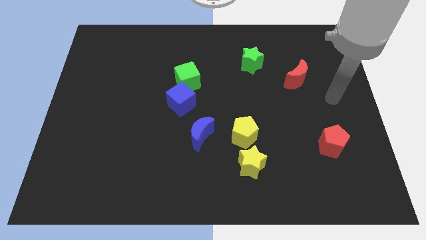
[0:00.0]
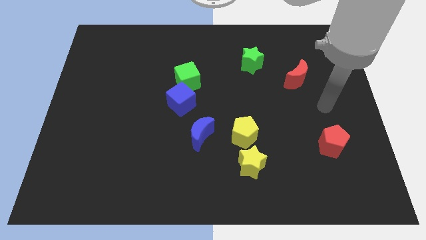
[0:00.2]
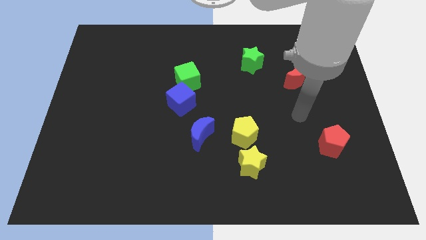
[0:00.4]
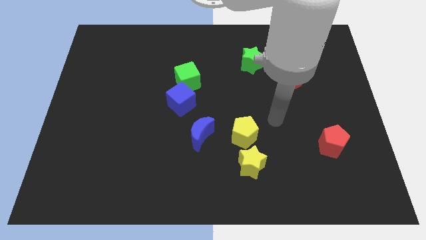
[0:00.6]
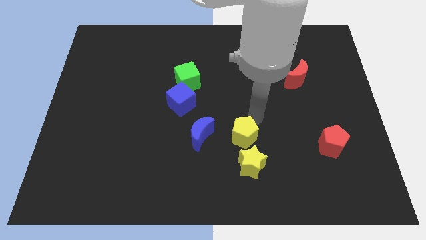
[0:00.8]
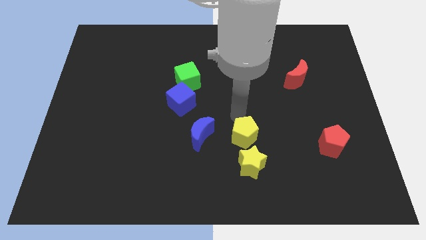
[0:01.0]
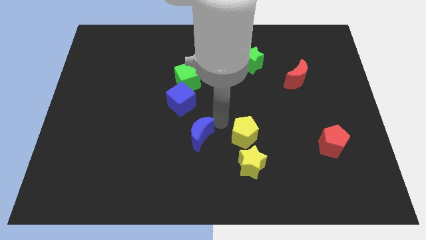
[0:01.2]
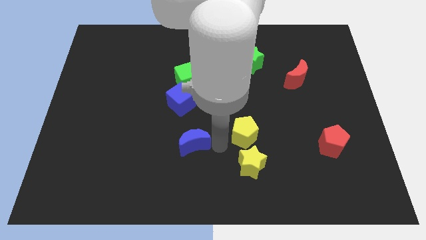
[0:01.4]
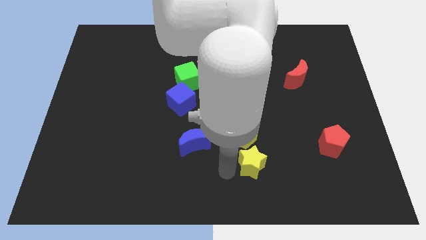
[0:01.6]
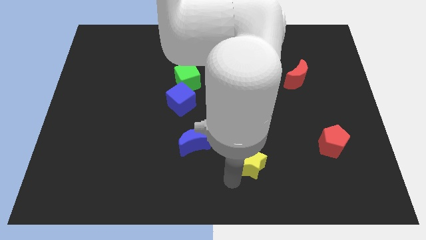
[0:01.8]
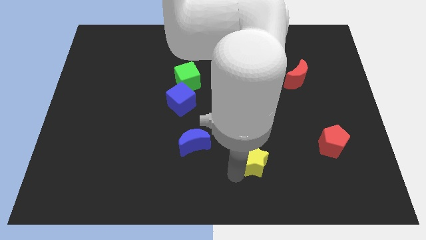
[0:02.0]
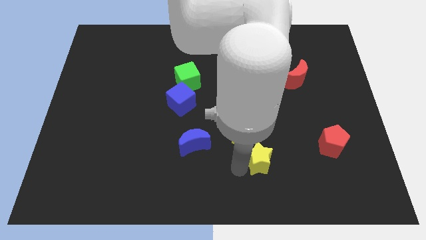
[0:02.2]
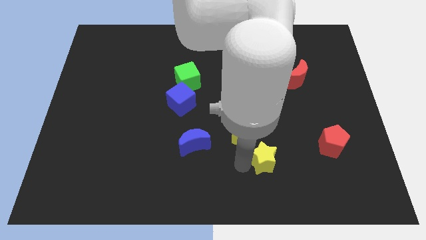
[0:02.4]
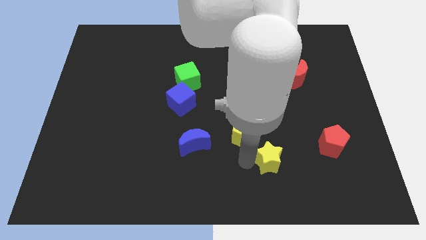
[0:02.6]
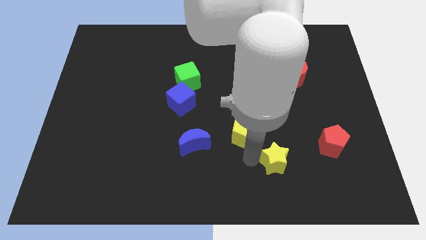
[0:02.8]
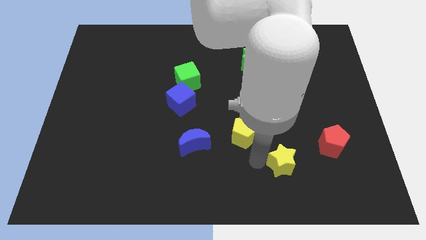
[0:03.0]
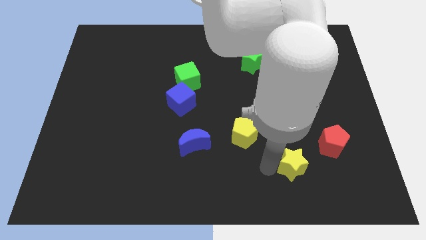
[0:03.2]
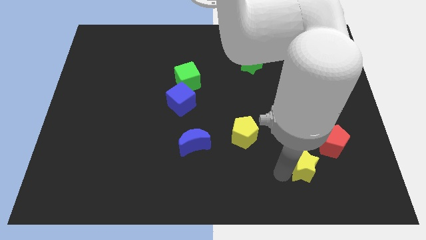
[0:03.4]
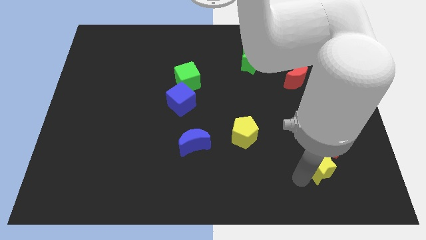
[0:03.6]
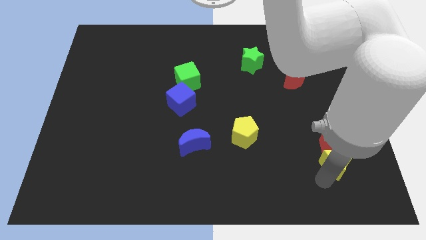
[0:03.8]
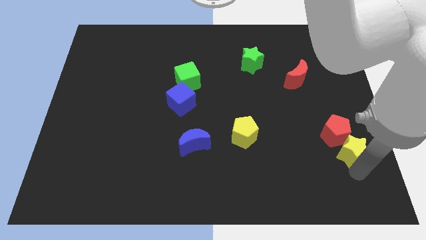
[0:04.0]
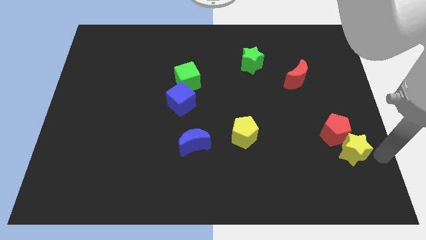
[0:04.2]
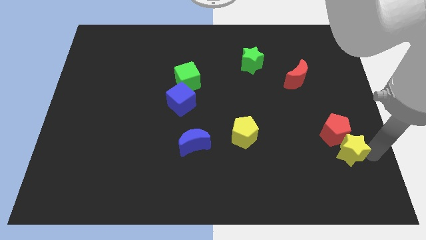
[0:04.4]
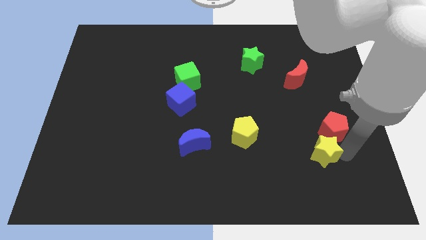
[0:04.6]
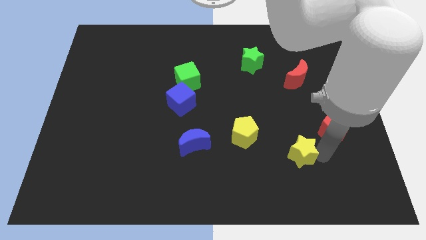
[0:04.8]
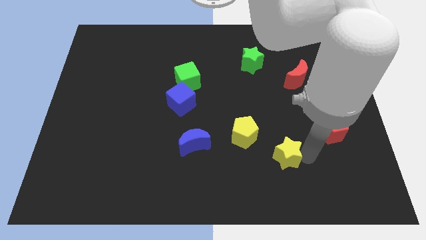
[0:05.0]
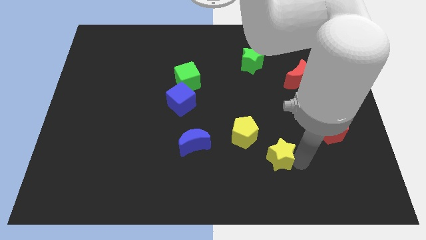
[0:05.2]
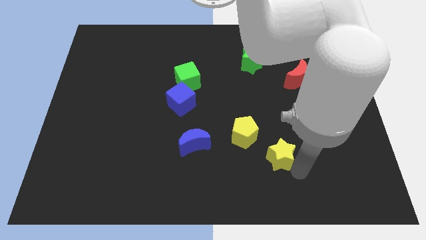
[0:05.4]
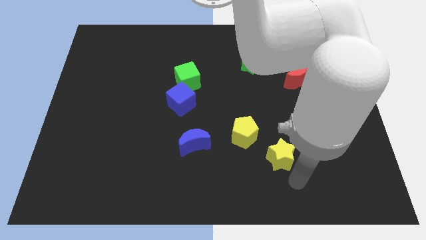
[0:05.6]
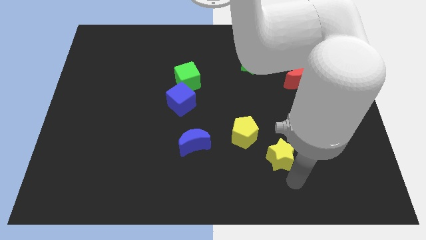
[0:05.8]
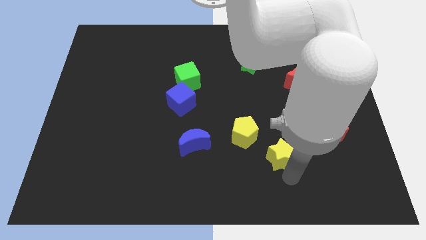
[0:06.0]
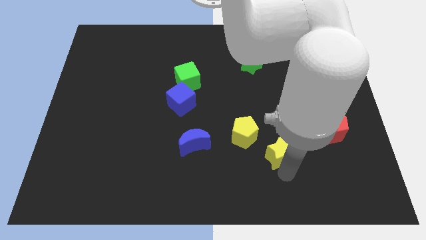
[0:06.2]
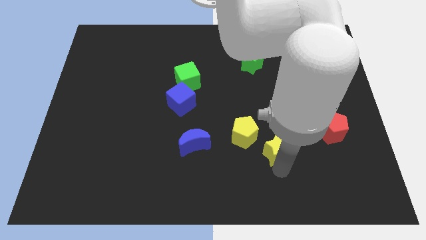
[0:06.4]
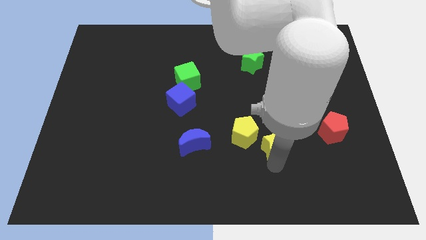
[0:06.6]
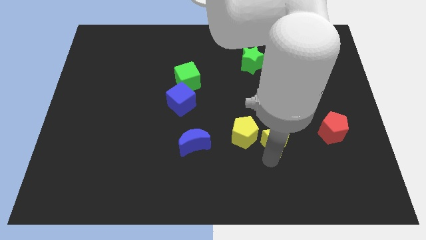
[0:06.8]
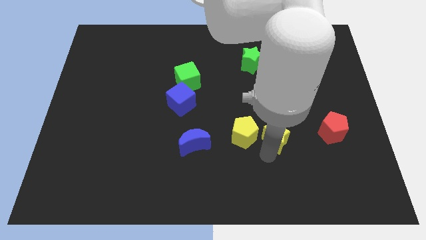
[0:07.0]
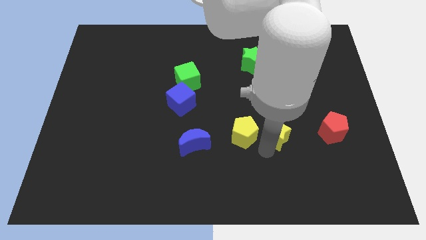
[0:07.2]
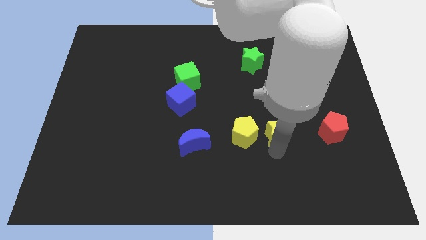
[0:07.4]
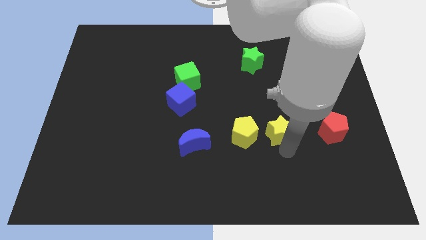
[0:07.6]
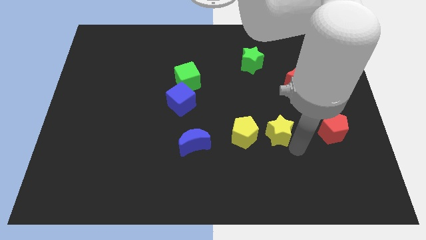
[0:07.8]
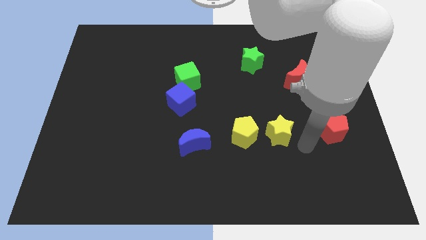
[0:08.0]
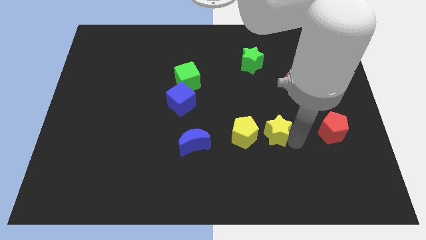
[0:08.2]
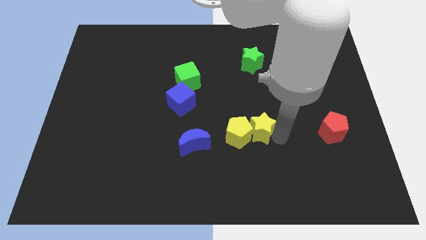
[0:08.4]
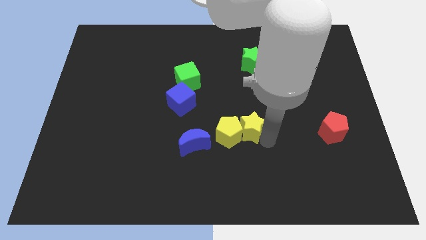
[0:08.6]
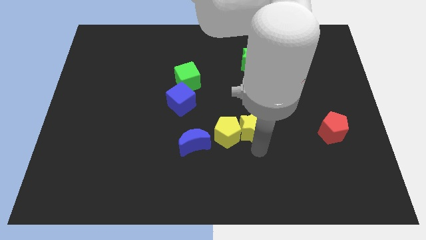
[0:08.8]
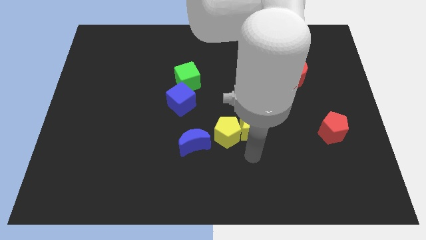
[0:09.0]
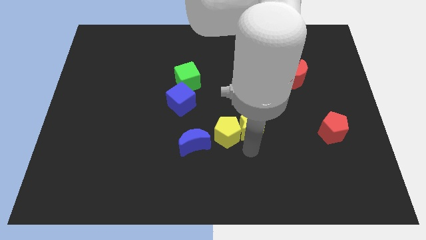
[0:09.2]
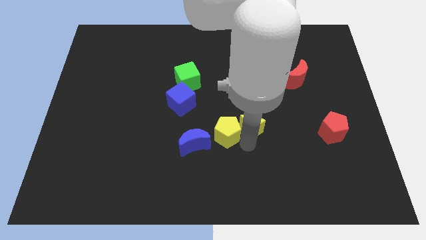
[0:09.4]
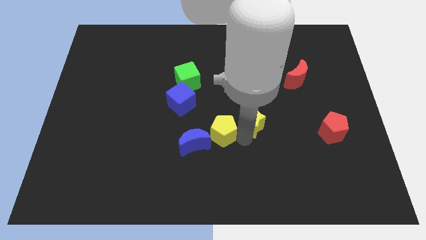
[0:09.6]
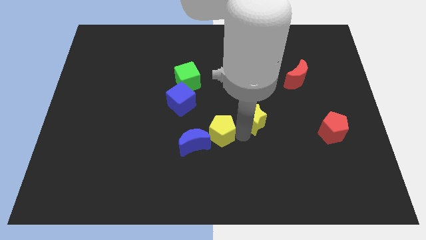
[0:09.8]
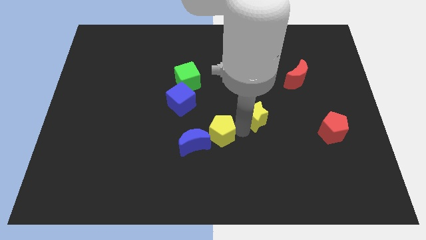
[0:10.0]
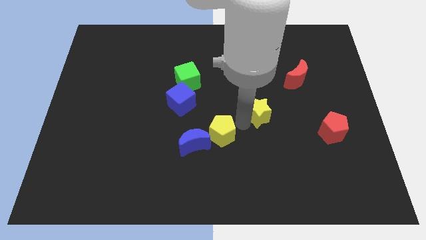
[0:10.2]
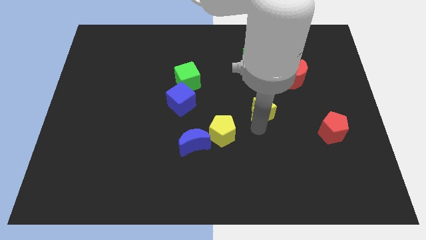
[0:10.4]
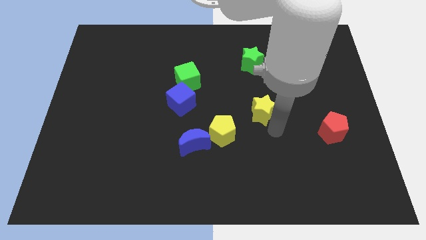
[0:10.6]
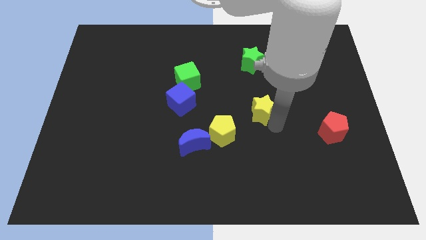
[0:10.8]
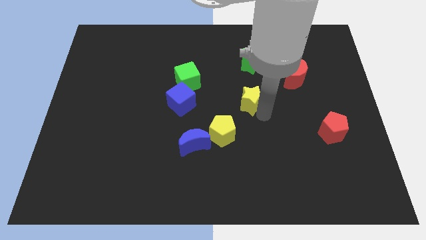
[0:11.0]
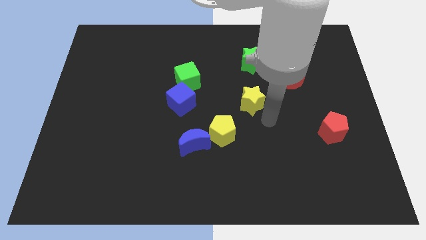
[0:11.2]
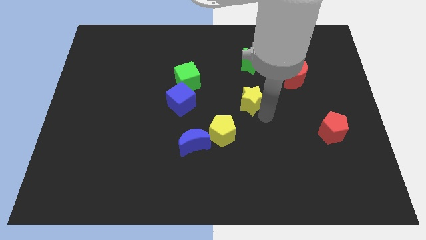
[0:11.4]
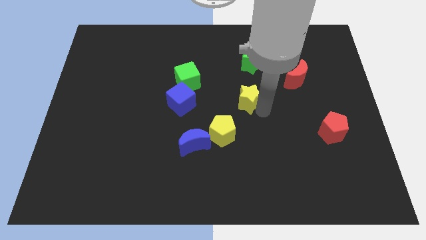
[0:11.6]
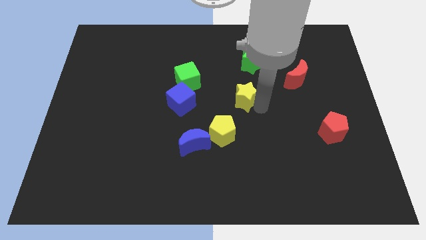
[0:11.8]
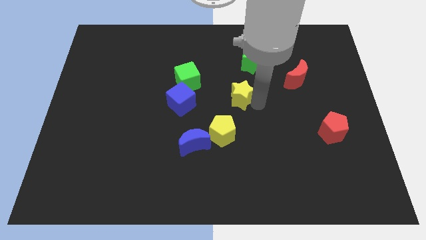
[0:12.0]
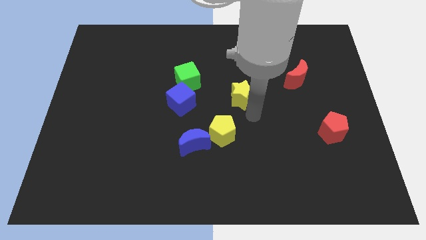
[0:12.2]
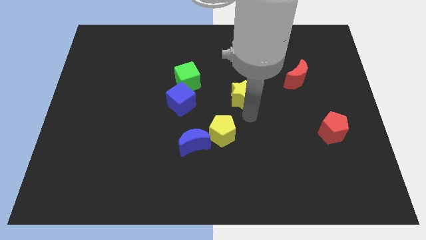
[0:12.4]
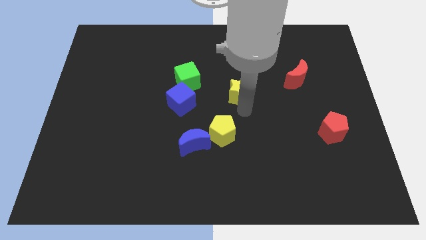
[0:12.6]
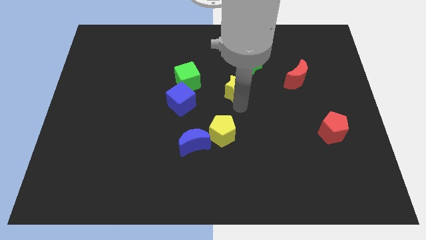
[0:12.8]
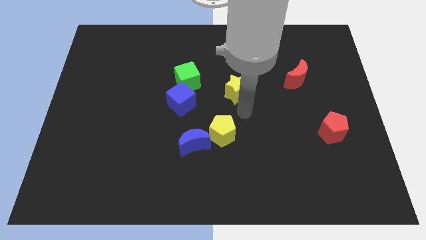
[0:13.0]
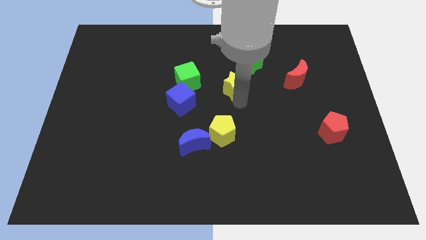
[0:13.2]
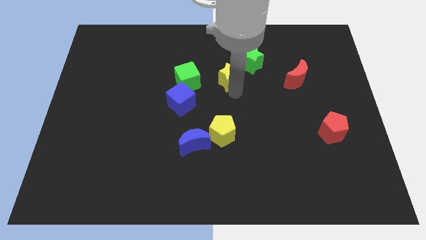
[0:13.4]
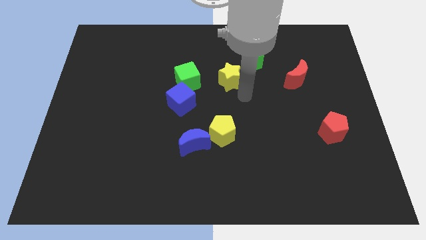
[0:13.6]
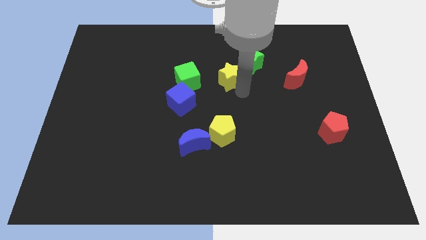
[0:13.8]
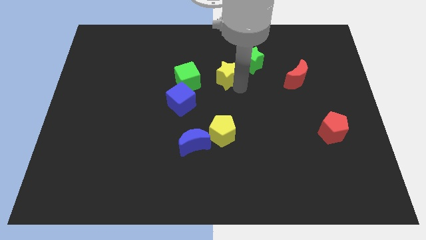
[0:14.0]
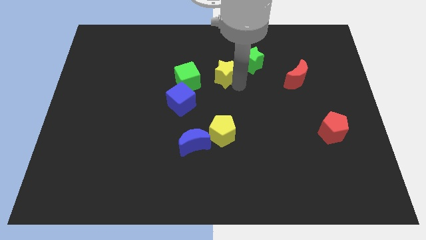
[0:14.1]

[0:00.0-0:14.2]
slide the yellow star left of the green star
